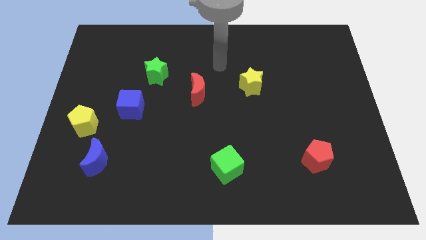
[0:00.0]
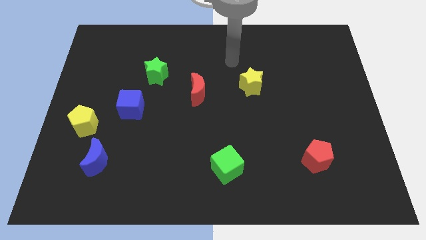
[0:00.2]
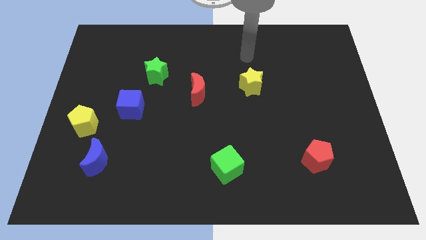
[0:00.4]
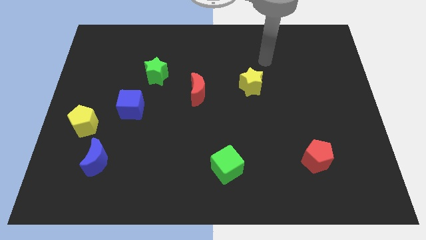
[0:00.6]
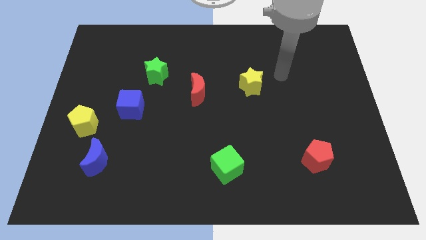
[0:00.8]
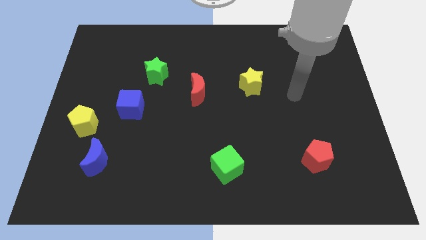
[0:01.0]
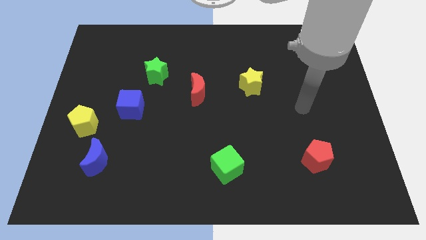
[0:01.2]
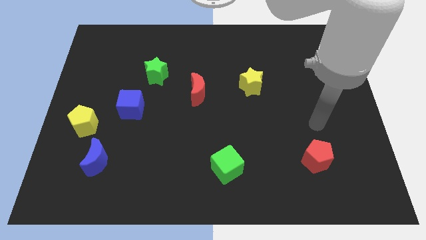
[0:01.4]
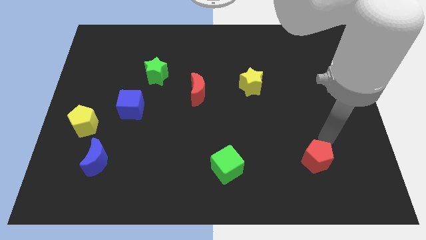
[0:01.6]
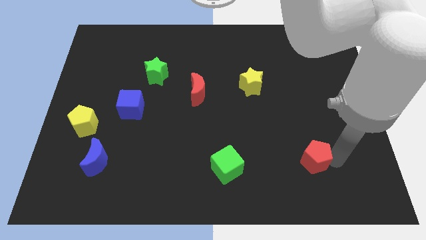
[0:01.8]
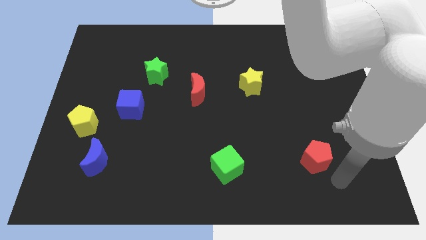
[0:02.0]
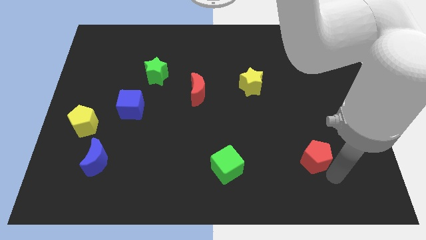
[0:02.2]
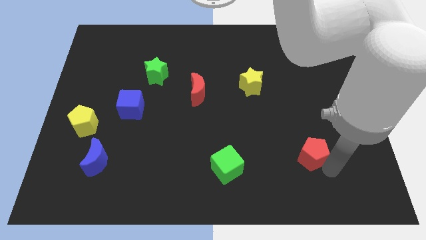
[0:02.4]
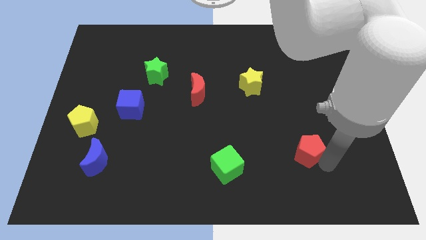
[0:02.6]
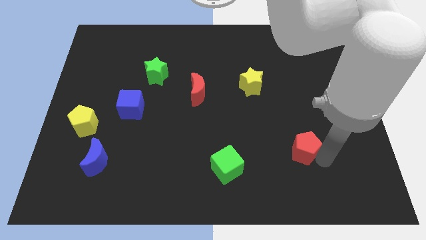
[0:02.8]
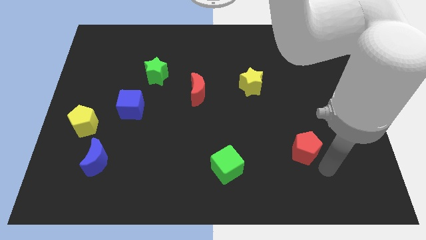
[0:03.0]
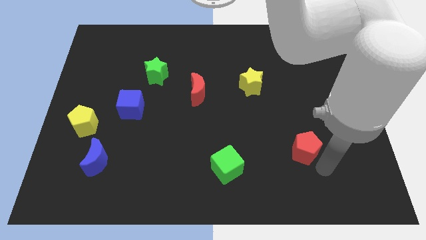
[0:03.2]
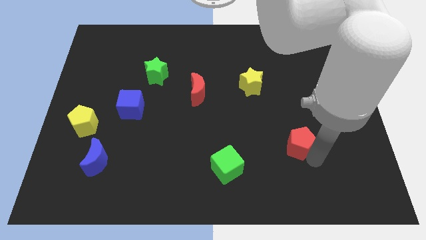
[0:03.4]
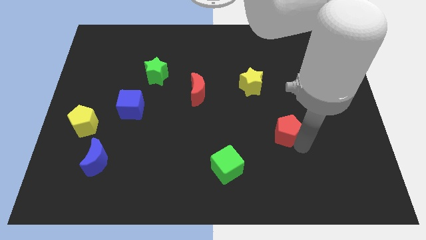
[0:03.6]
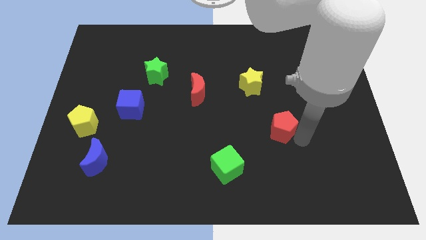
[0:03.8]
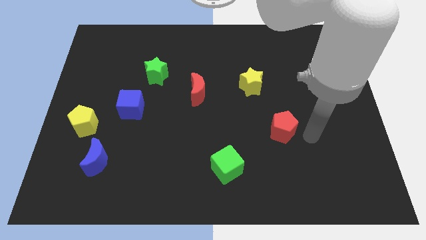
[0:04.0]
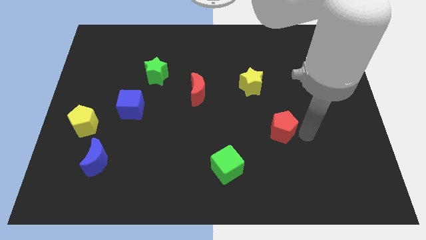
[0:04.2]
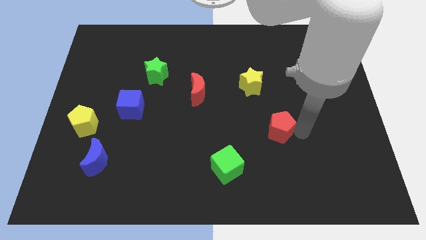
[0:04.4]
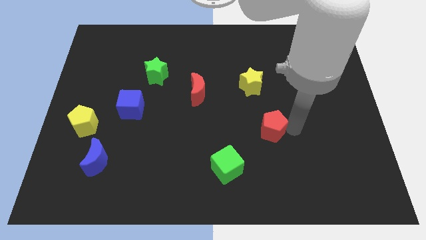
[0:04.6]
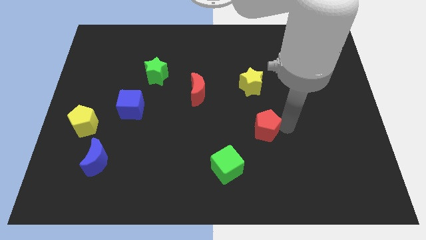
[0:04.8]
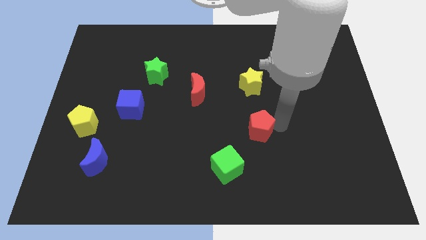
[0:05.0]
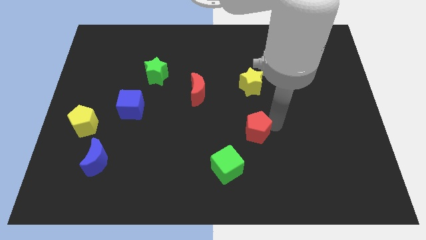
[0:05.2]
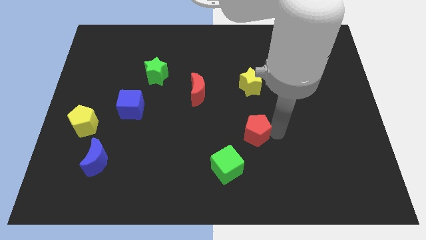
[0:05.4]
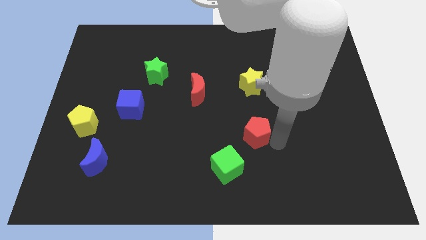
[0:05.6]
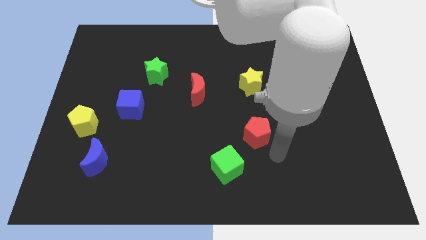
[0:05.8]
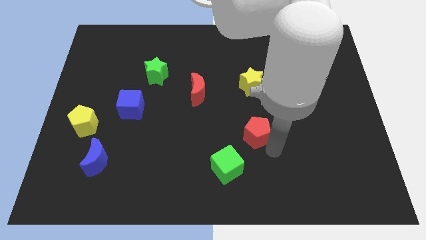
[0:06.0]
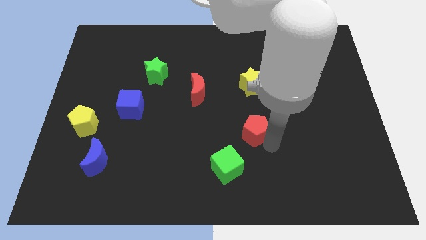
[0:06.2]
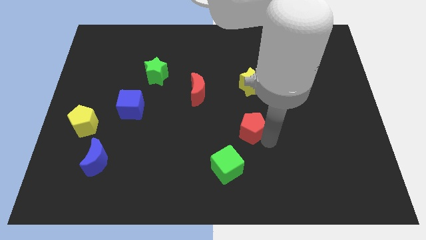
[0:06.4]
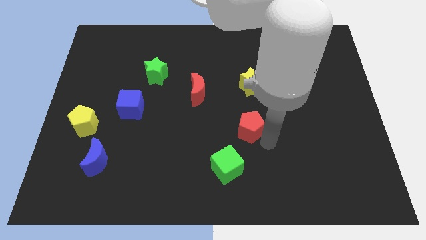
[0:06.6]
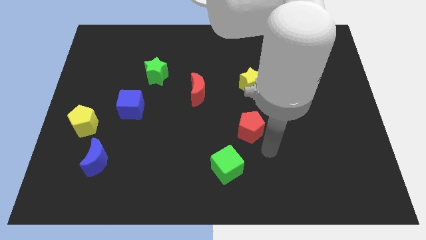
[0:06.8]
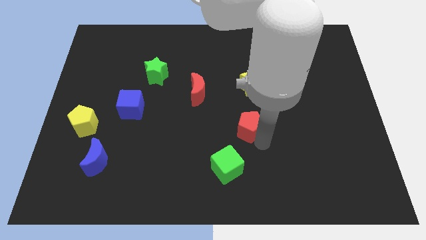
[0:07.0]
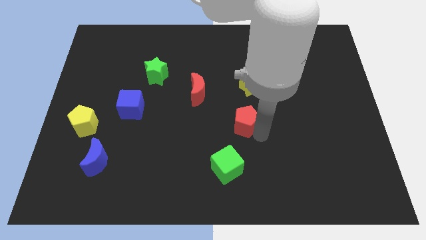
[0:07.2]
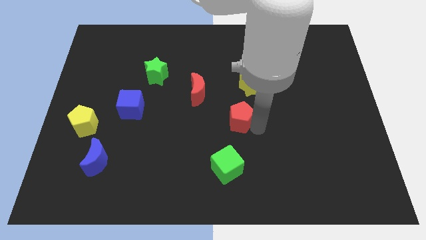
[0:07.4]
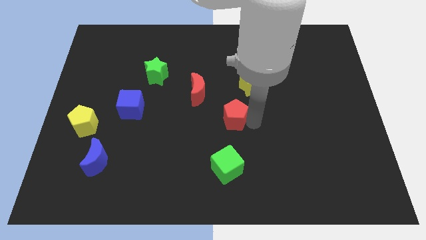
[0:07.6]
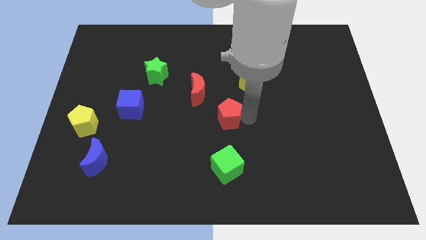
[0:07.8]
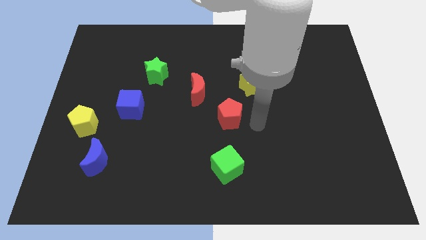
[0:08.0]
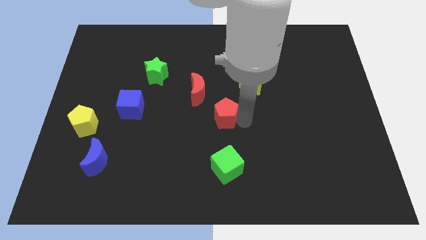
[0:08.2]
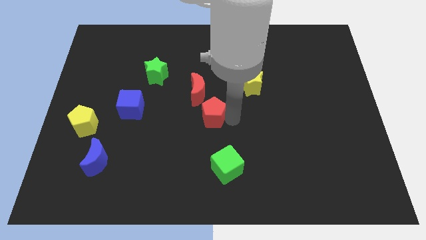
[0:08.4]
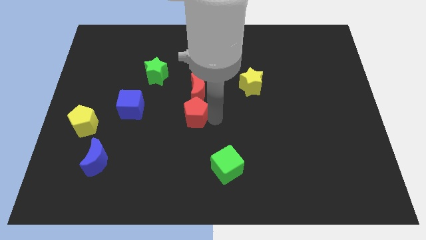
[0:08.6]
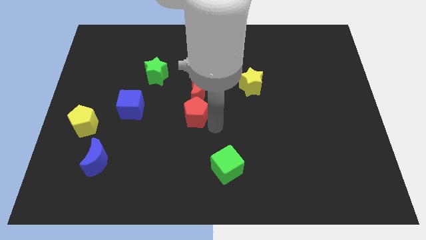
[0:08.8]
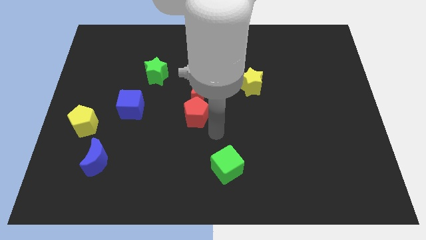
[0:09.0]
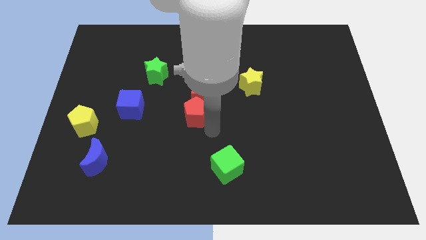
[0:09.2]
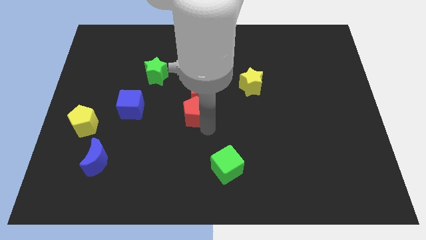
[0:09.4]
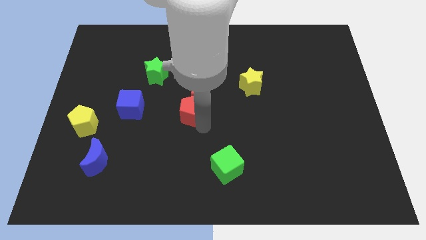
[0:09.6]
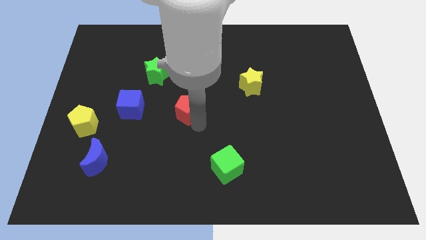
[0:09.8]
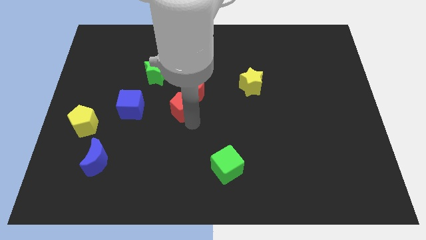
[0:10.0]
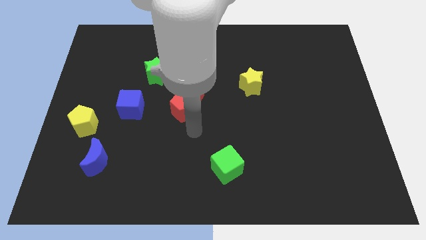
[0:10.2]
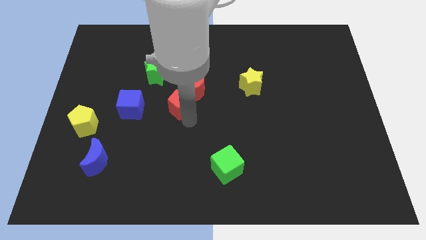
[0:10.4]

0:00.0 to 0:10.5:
put the red pentagon to the bottom right of the green star

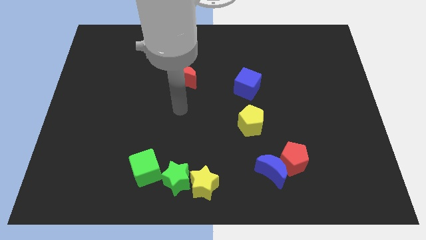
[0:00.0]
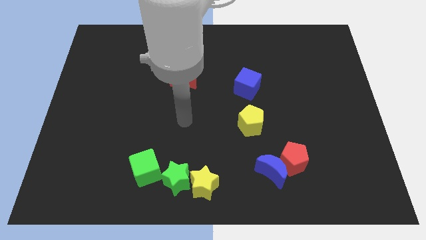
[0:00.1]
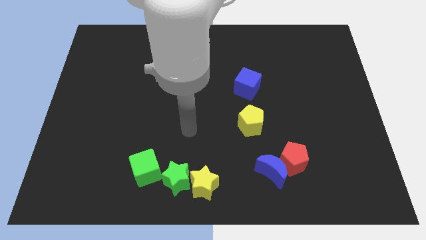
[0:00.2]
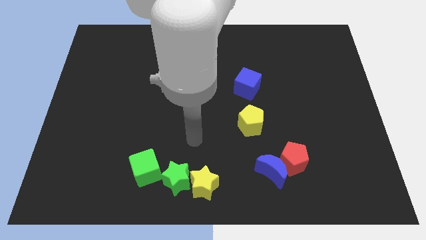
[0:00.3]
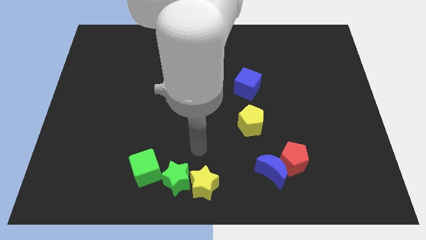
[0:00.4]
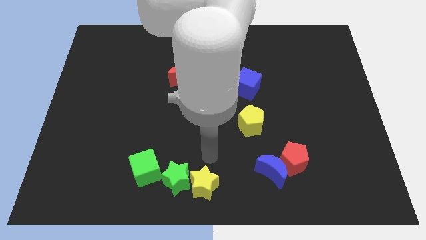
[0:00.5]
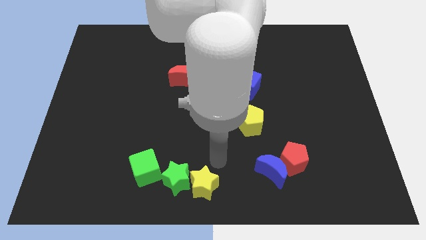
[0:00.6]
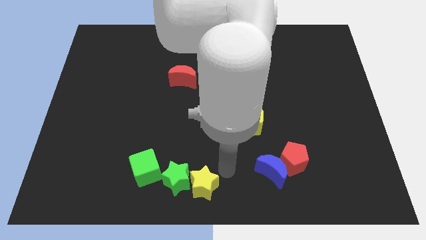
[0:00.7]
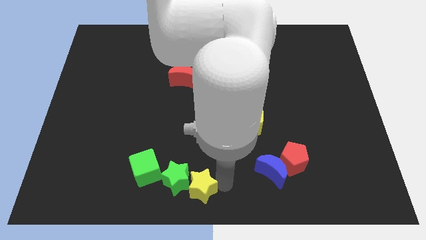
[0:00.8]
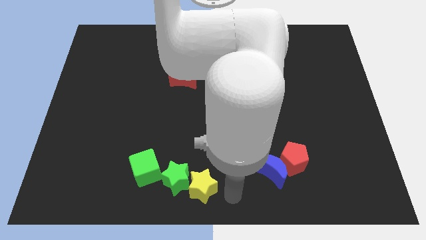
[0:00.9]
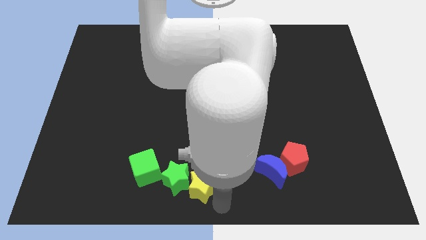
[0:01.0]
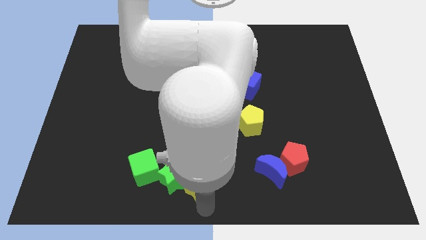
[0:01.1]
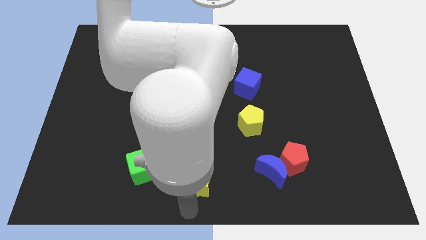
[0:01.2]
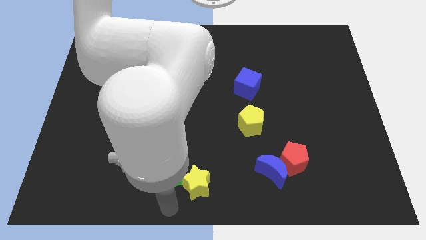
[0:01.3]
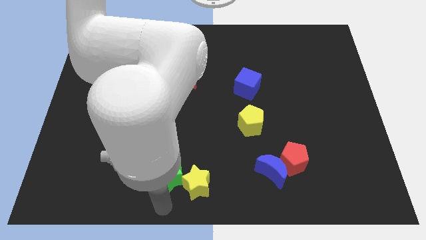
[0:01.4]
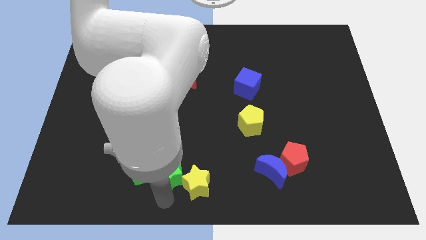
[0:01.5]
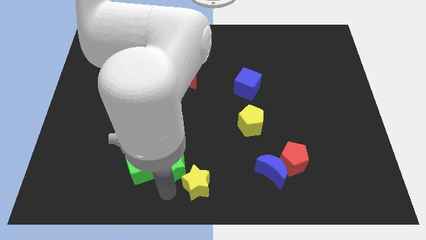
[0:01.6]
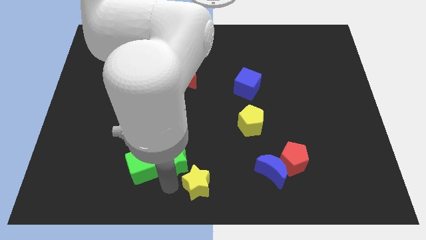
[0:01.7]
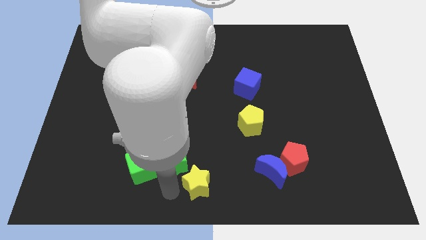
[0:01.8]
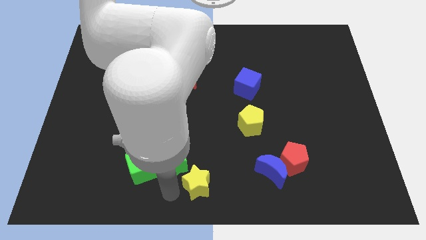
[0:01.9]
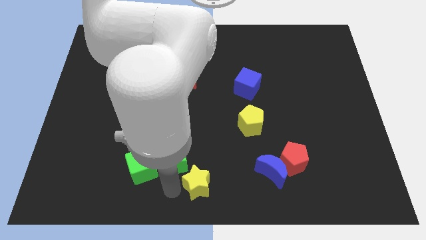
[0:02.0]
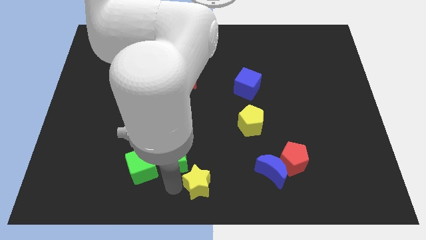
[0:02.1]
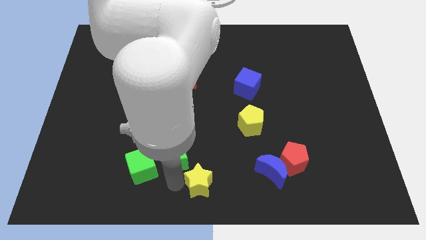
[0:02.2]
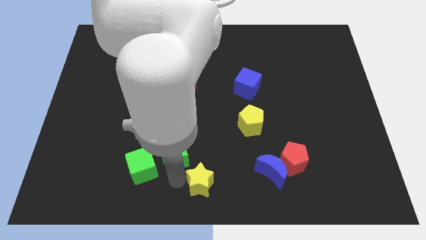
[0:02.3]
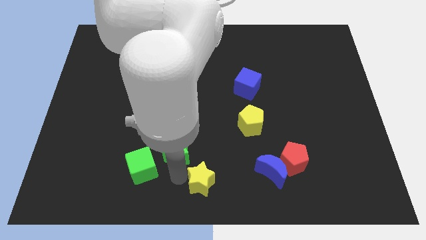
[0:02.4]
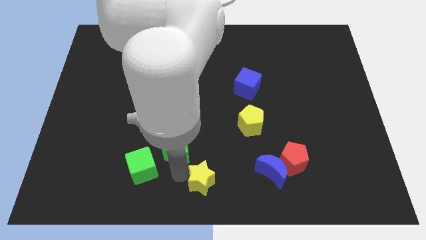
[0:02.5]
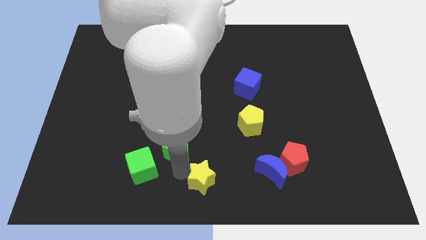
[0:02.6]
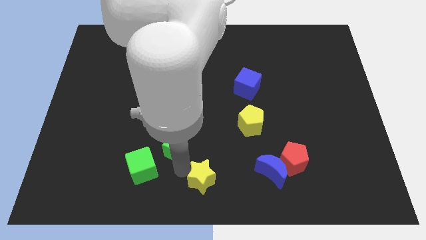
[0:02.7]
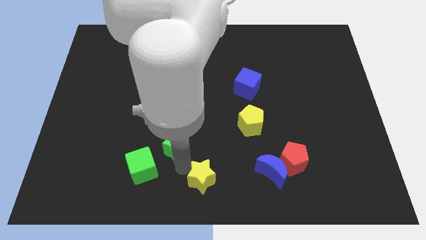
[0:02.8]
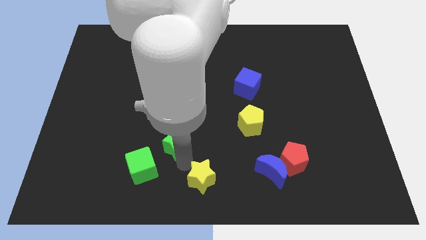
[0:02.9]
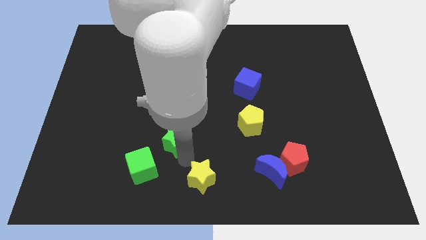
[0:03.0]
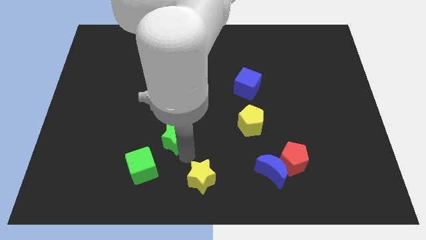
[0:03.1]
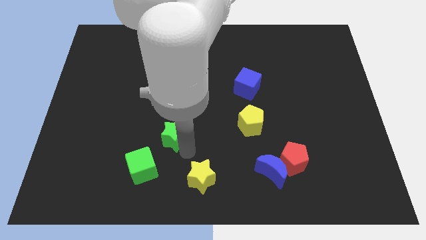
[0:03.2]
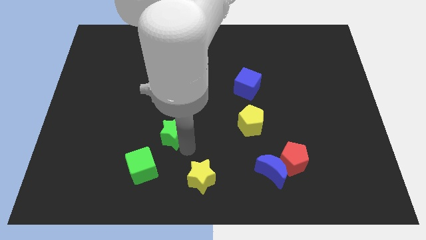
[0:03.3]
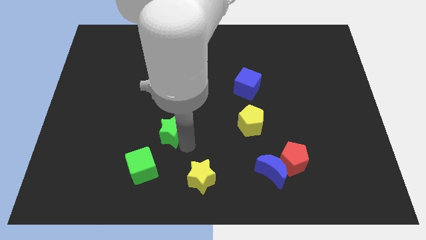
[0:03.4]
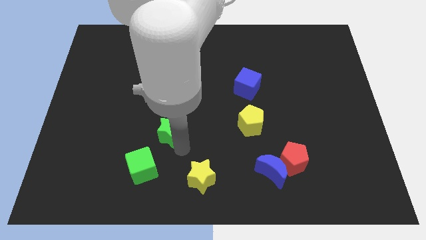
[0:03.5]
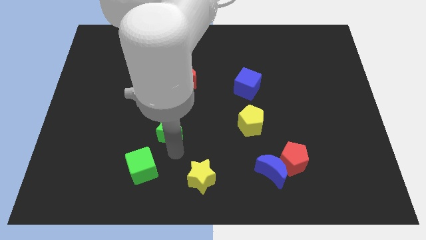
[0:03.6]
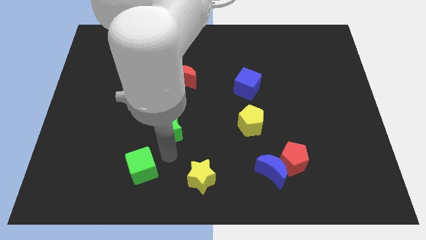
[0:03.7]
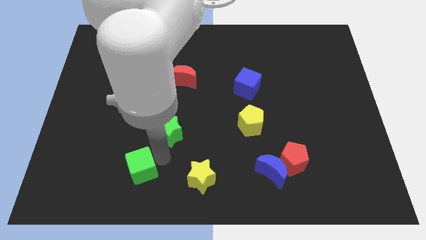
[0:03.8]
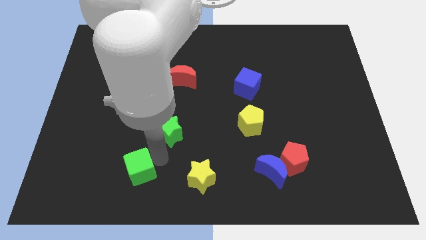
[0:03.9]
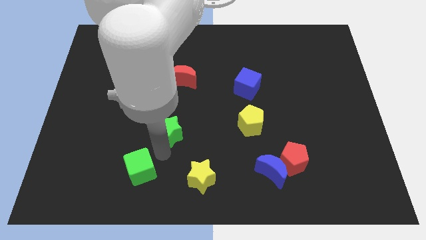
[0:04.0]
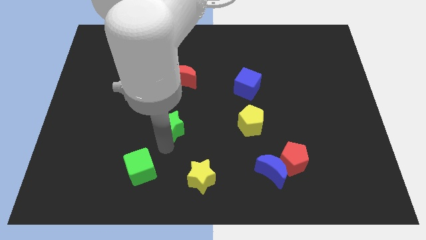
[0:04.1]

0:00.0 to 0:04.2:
push the green star to the bottom side of the red moon
